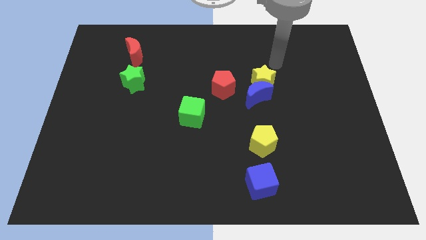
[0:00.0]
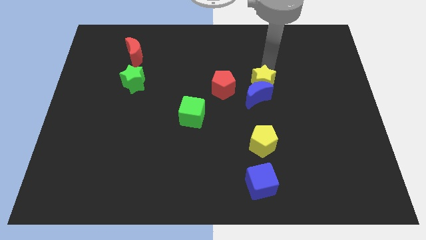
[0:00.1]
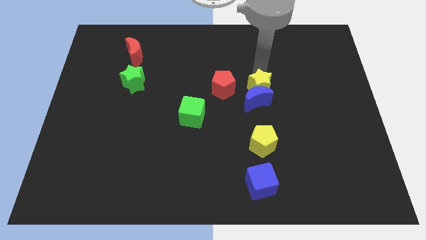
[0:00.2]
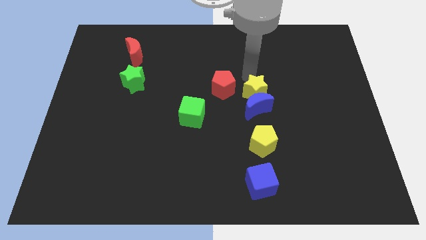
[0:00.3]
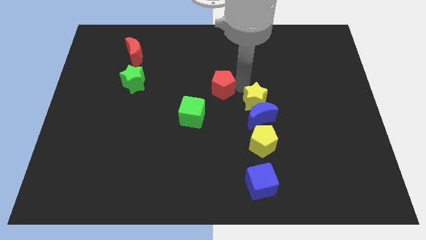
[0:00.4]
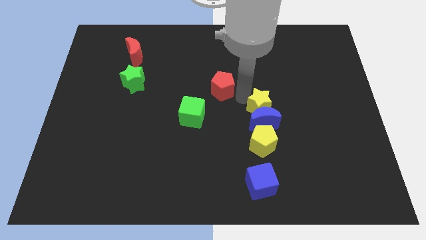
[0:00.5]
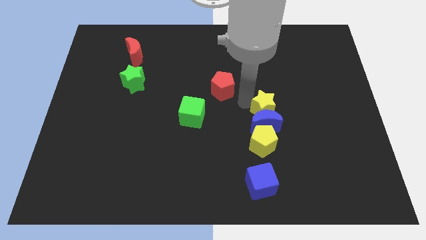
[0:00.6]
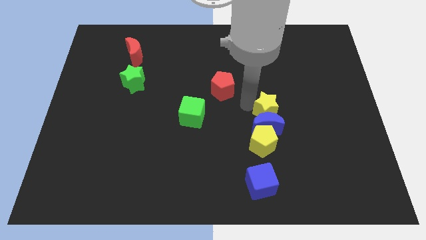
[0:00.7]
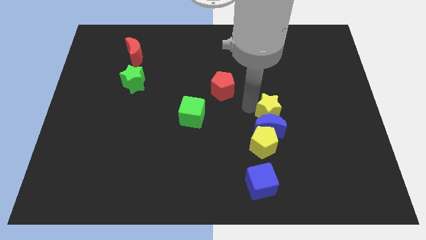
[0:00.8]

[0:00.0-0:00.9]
separate the blue moon from the yellow star and red pentagon

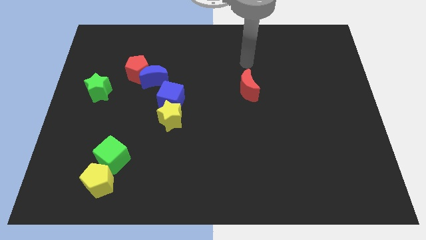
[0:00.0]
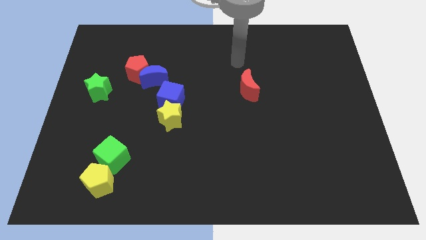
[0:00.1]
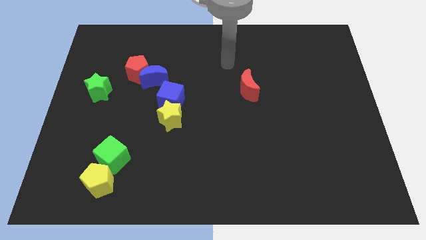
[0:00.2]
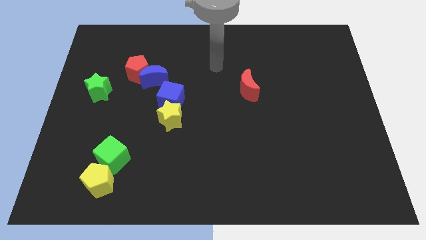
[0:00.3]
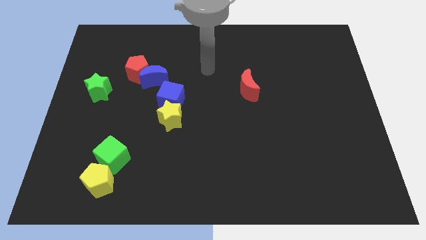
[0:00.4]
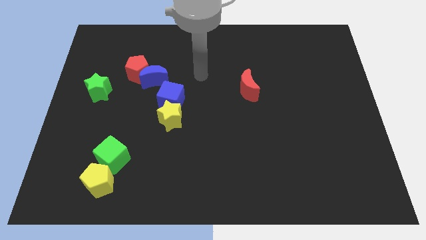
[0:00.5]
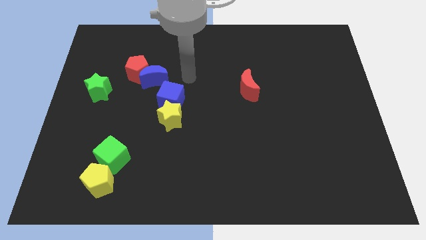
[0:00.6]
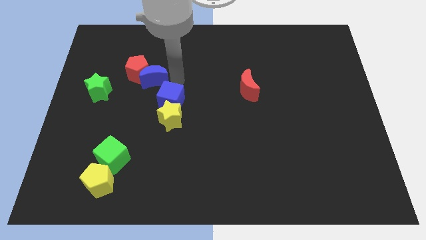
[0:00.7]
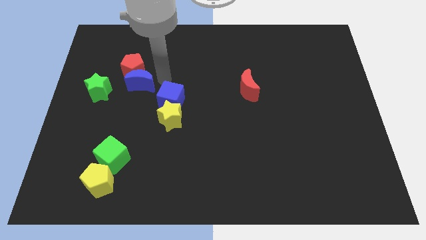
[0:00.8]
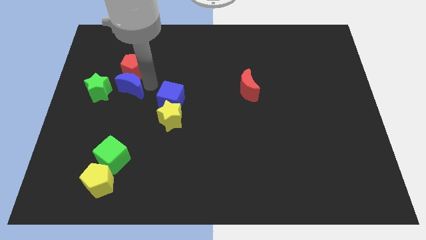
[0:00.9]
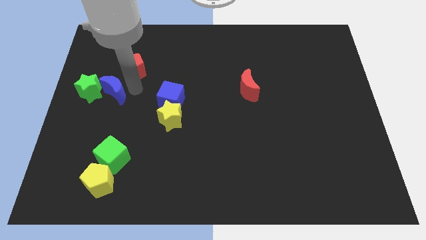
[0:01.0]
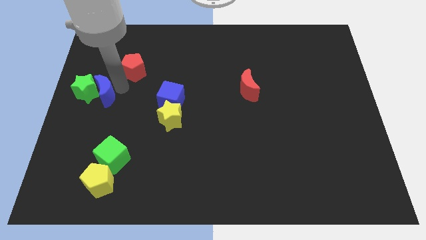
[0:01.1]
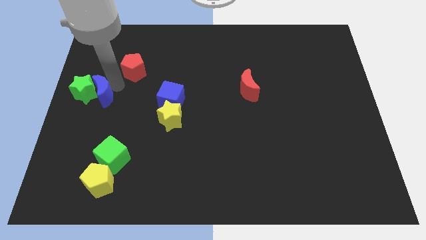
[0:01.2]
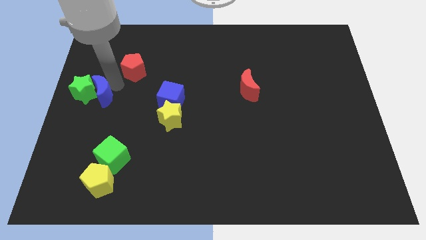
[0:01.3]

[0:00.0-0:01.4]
move the red pentagon away from the blue moon

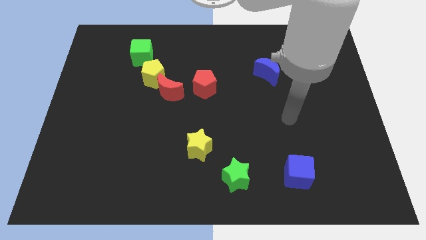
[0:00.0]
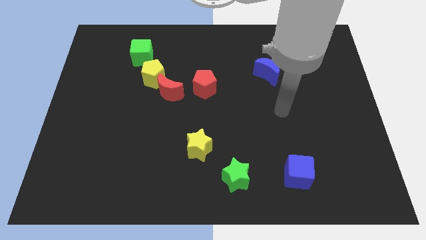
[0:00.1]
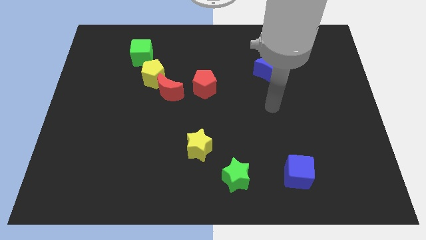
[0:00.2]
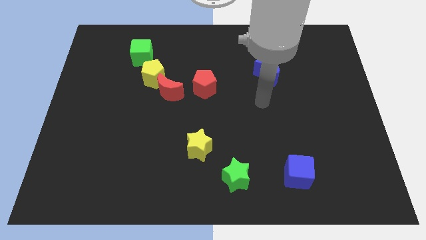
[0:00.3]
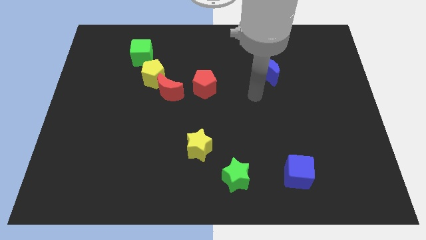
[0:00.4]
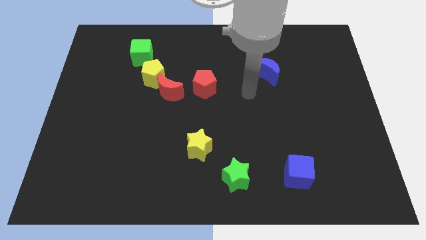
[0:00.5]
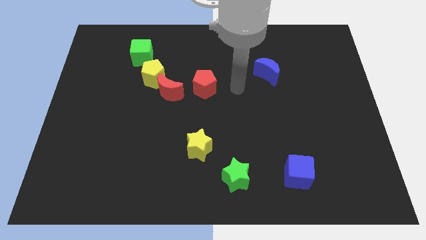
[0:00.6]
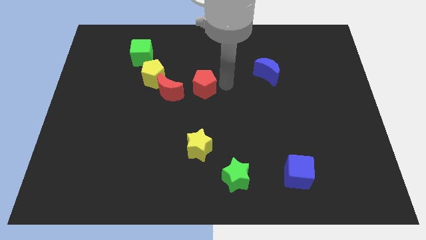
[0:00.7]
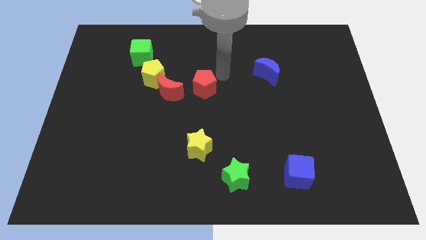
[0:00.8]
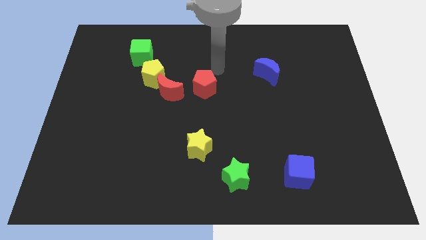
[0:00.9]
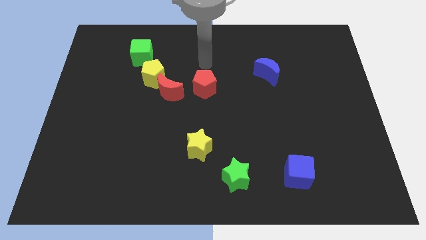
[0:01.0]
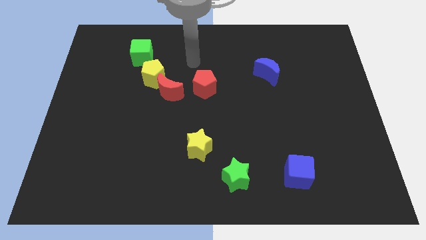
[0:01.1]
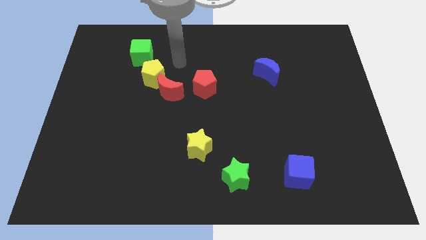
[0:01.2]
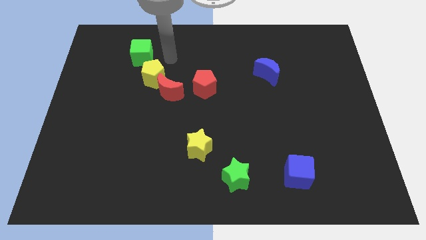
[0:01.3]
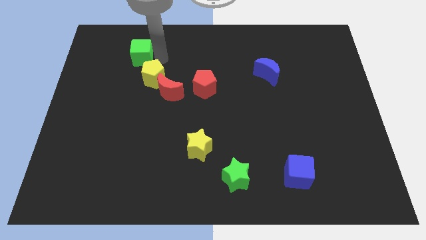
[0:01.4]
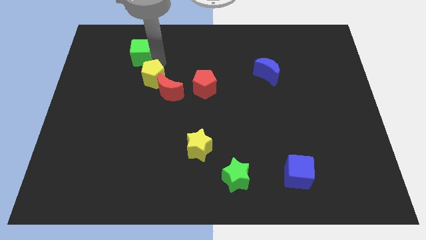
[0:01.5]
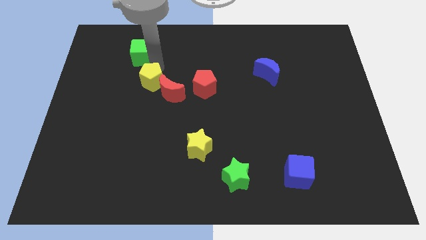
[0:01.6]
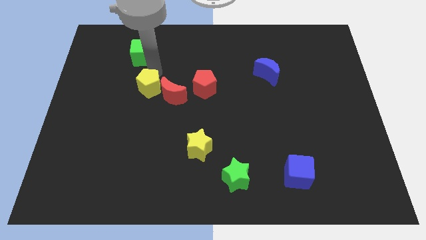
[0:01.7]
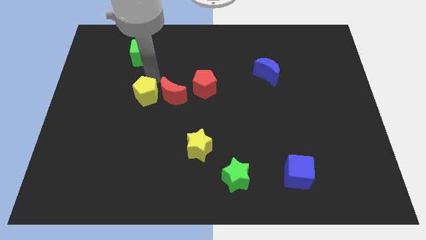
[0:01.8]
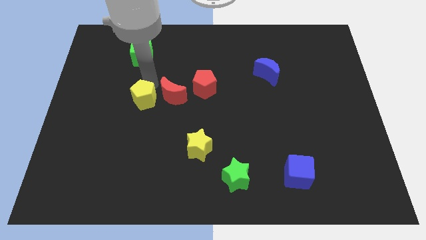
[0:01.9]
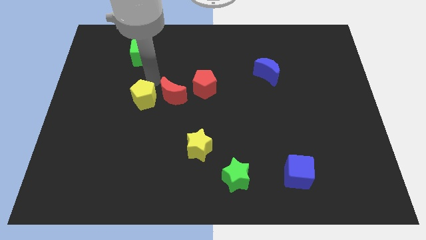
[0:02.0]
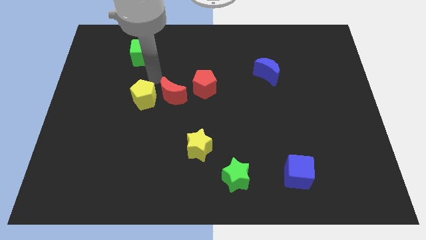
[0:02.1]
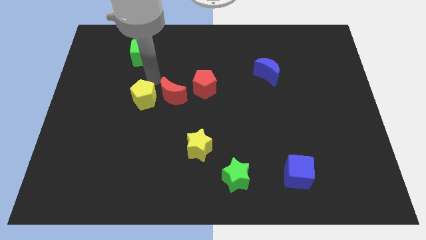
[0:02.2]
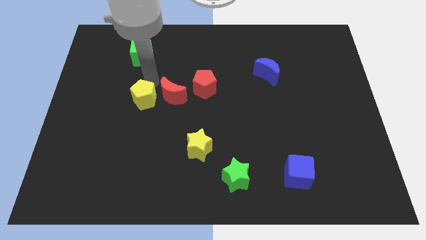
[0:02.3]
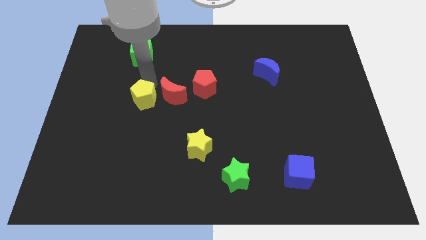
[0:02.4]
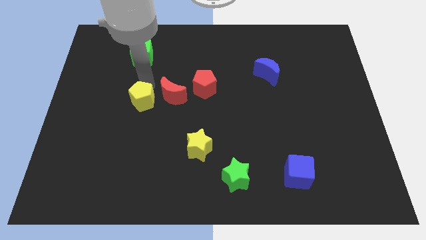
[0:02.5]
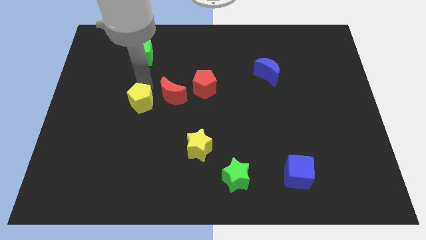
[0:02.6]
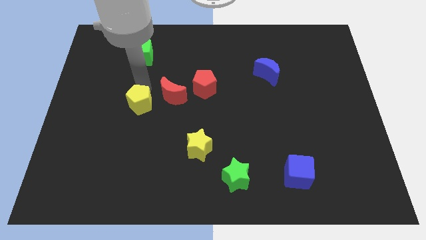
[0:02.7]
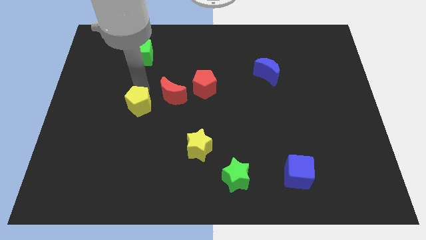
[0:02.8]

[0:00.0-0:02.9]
pull the yellow pentagon apart from the red moon and green cube

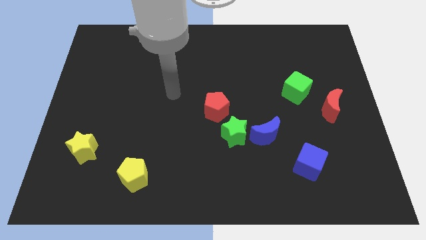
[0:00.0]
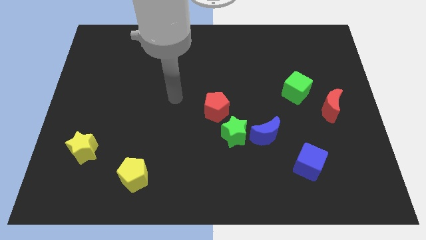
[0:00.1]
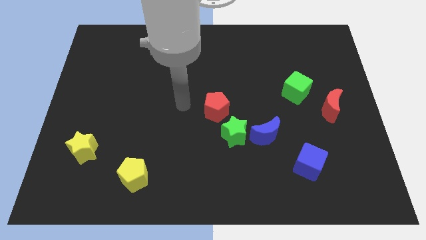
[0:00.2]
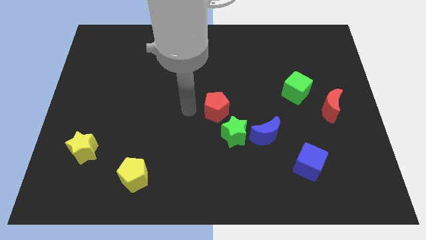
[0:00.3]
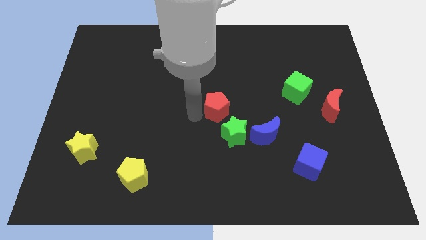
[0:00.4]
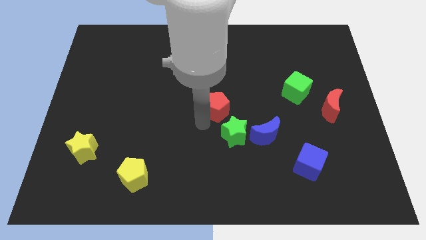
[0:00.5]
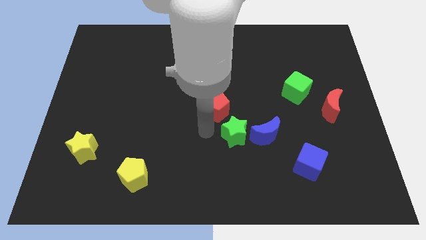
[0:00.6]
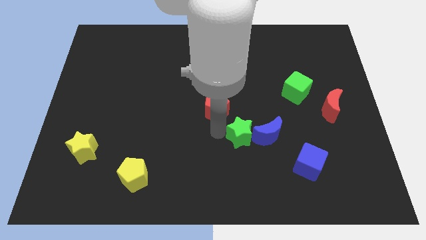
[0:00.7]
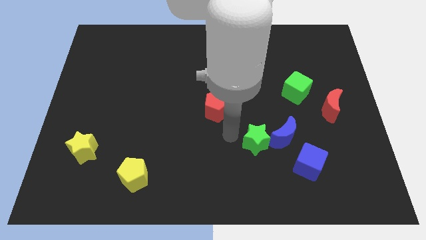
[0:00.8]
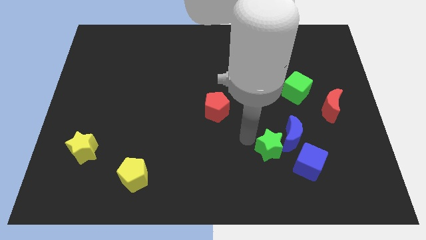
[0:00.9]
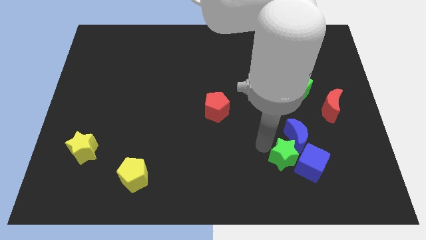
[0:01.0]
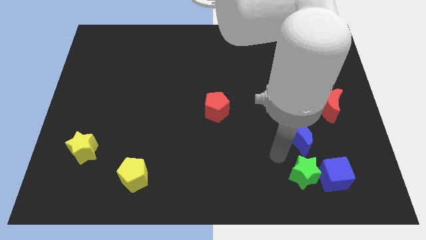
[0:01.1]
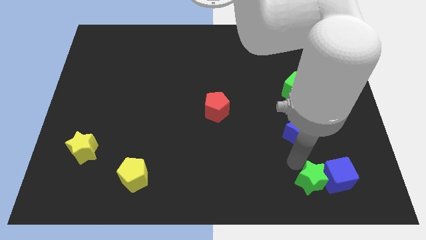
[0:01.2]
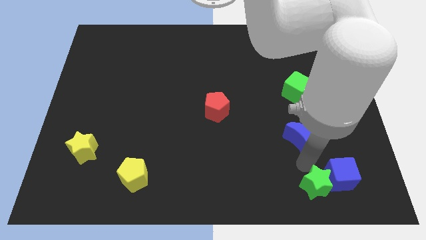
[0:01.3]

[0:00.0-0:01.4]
pull the blue moon apart from the green star

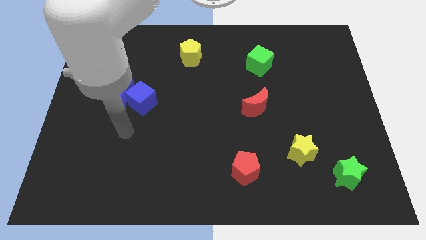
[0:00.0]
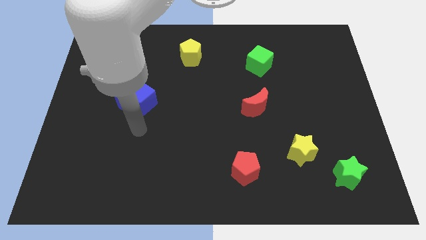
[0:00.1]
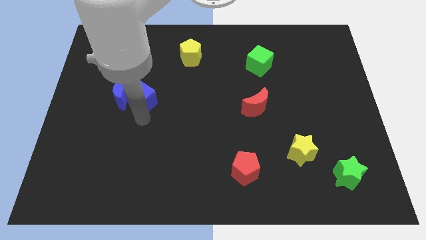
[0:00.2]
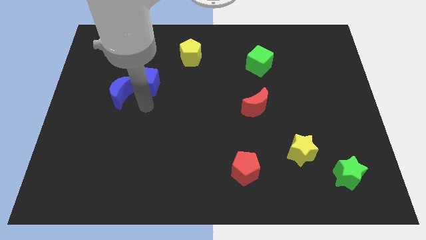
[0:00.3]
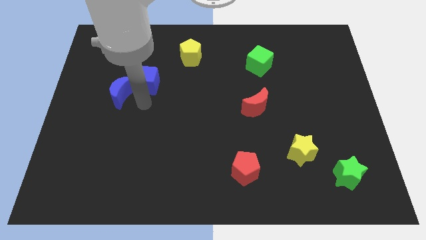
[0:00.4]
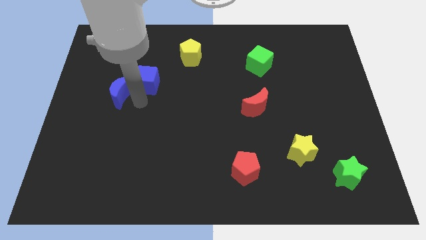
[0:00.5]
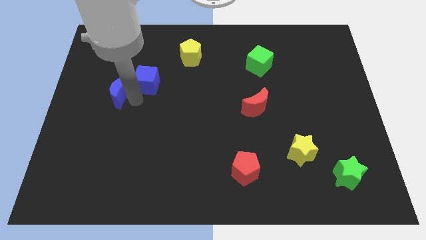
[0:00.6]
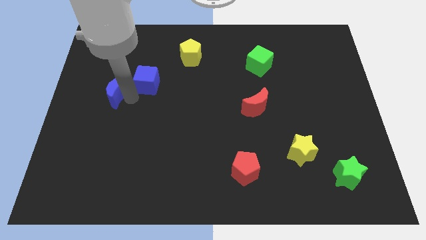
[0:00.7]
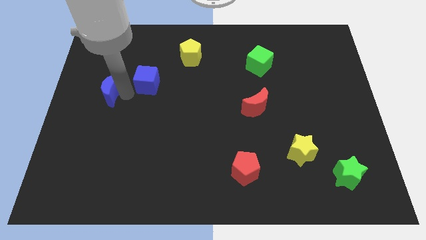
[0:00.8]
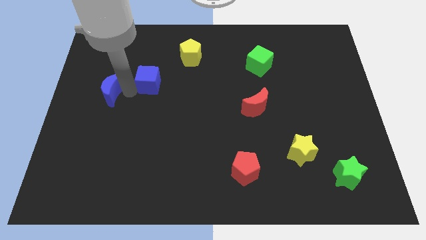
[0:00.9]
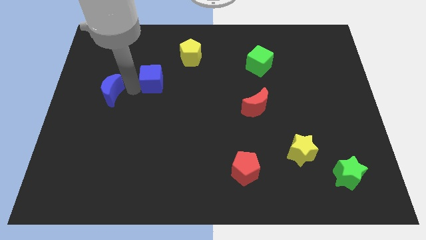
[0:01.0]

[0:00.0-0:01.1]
move the blue moon away from the blue cube

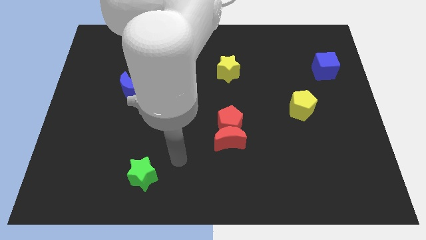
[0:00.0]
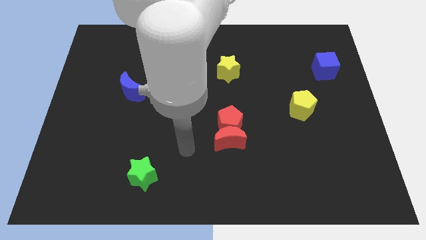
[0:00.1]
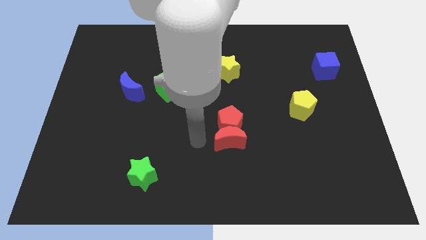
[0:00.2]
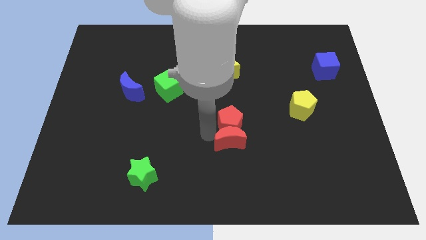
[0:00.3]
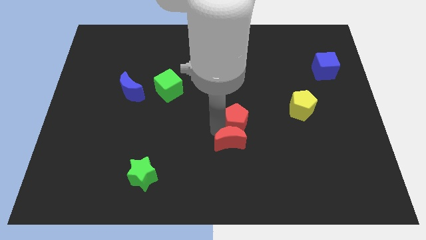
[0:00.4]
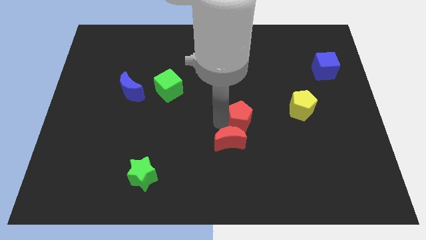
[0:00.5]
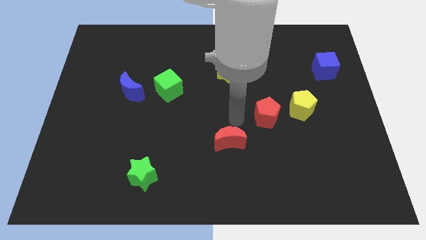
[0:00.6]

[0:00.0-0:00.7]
pull the red moon apart from the red pentagon

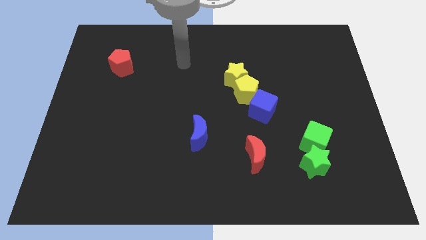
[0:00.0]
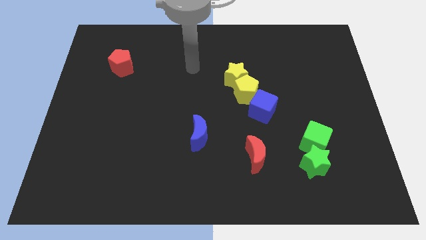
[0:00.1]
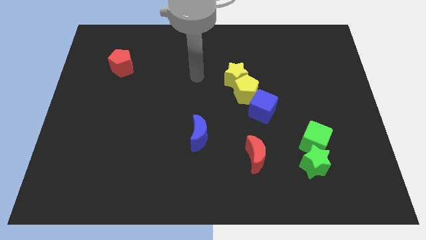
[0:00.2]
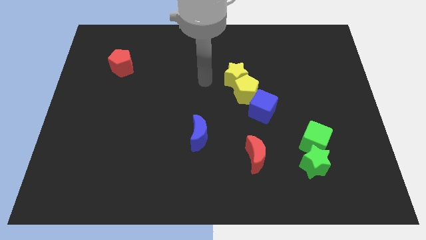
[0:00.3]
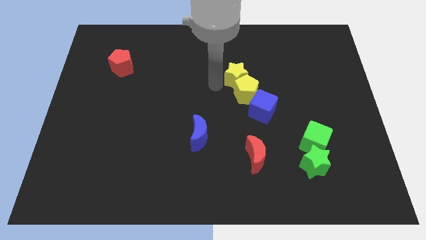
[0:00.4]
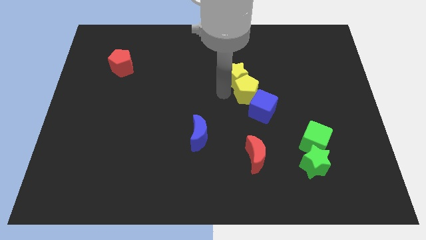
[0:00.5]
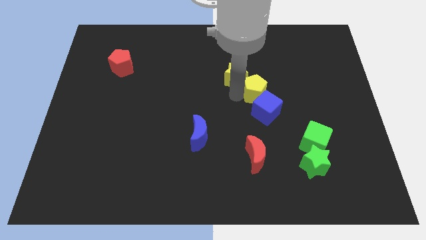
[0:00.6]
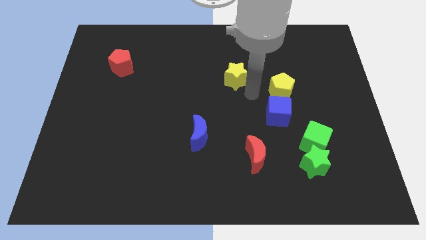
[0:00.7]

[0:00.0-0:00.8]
move the yellow star away from the yellow pentagon
